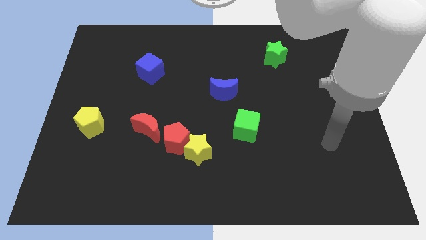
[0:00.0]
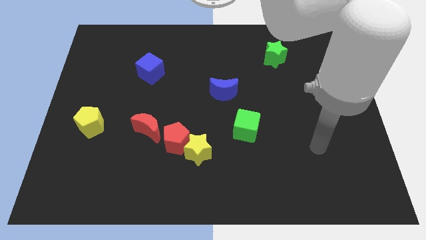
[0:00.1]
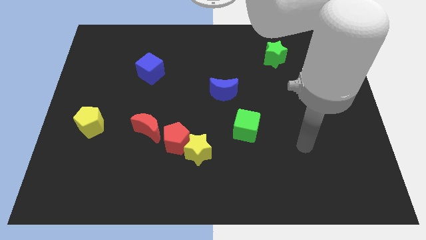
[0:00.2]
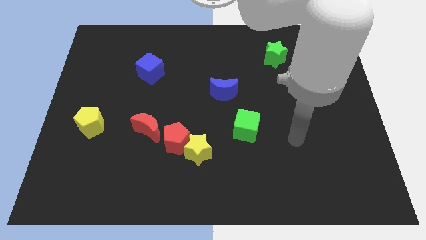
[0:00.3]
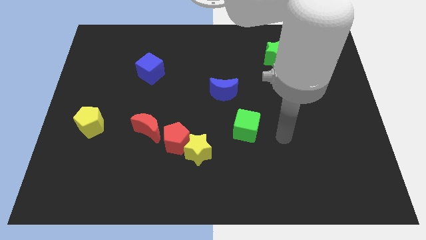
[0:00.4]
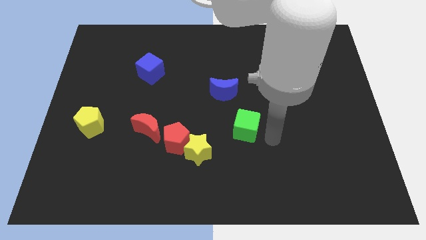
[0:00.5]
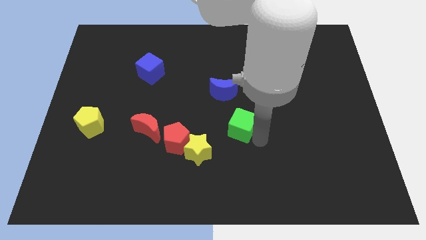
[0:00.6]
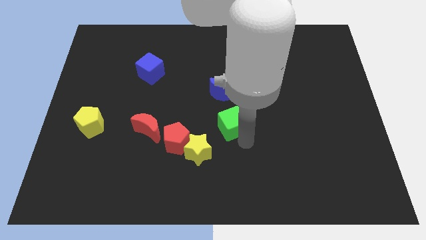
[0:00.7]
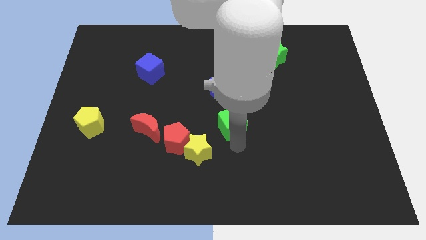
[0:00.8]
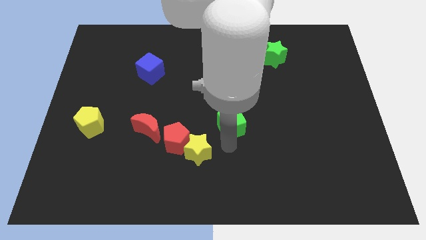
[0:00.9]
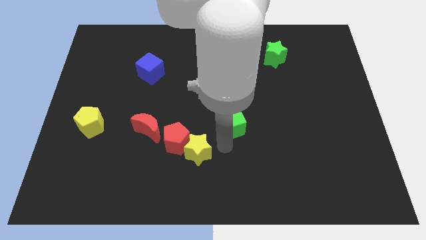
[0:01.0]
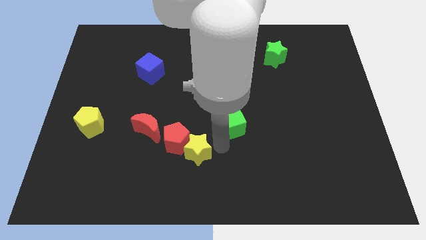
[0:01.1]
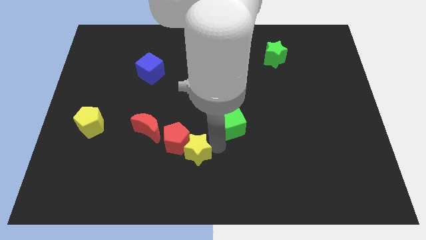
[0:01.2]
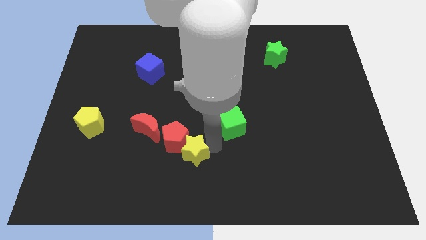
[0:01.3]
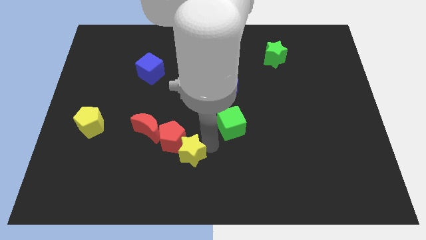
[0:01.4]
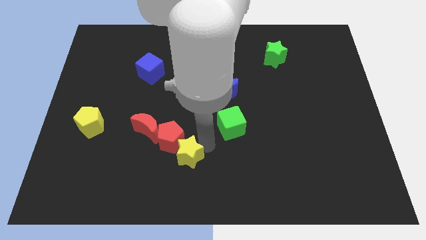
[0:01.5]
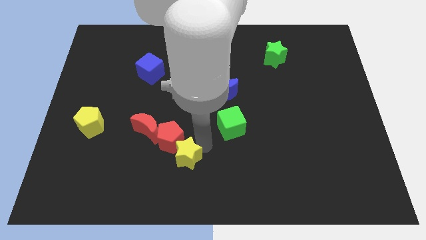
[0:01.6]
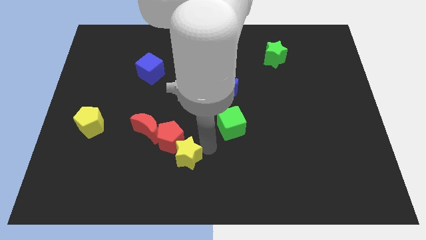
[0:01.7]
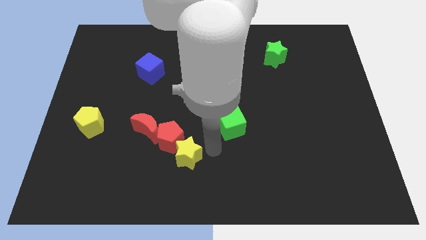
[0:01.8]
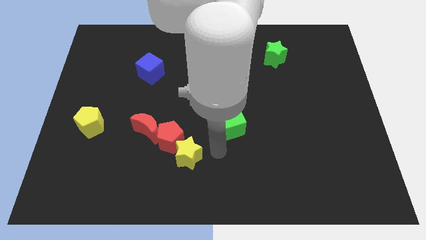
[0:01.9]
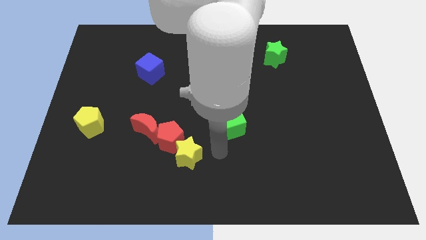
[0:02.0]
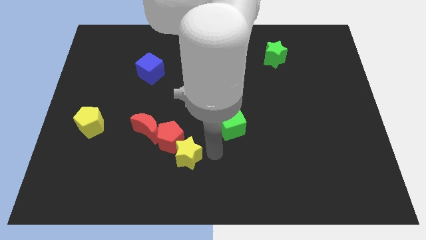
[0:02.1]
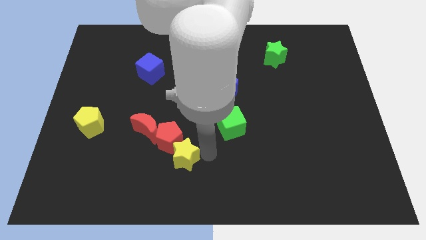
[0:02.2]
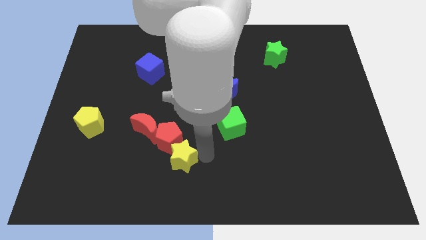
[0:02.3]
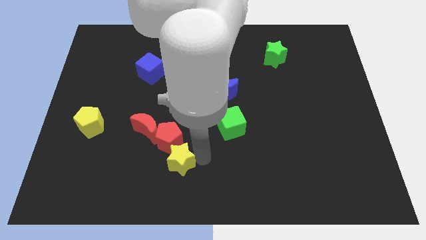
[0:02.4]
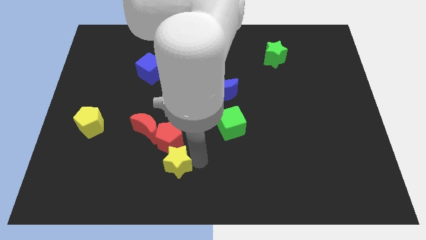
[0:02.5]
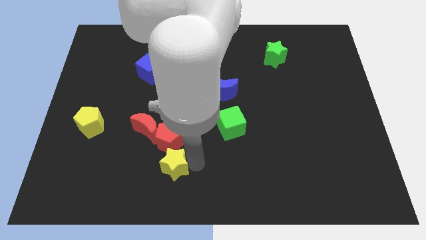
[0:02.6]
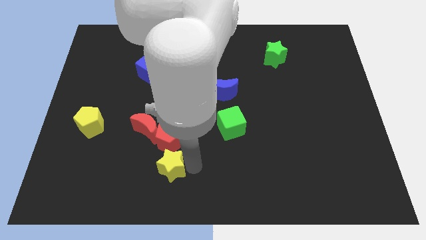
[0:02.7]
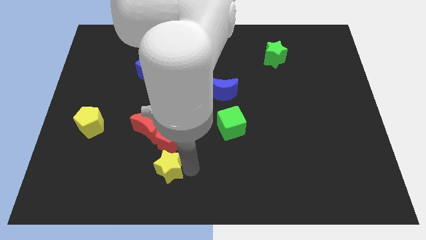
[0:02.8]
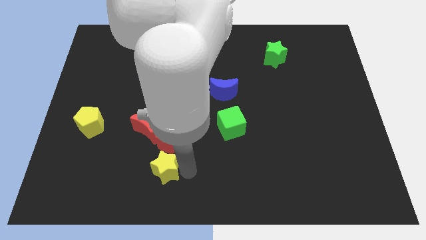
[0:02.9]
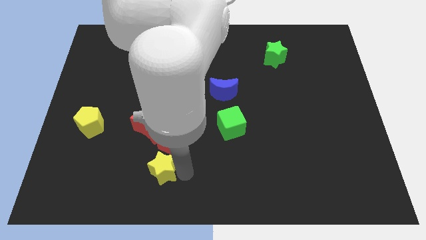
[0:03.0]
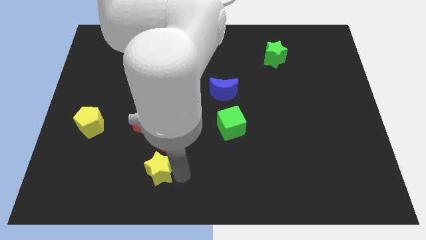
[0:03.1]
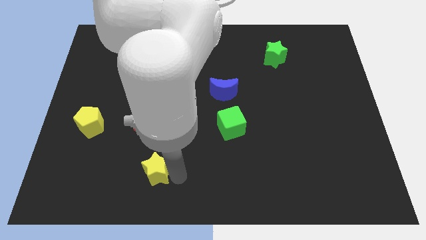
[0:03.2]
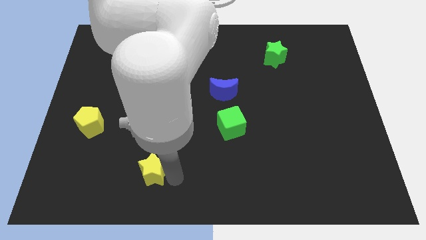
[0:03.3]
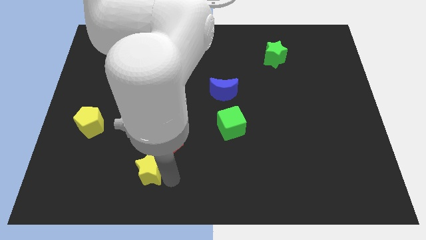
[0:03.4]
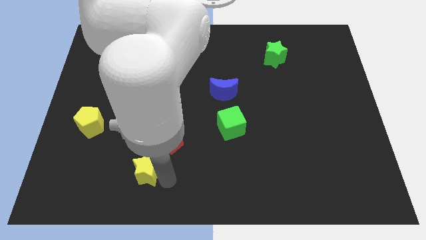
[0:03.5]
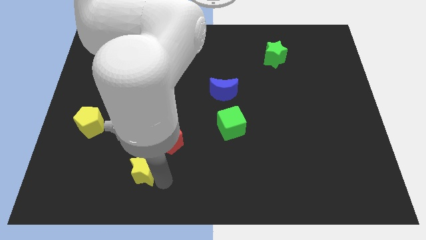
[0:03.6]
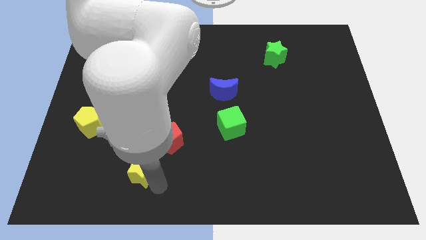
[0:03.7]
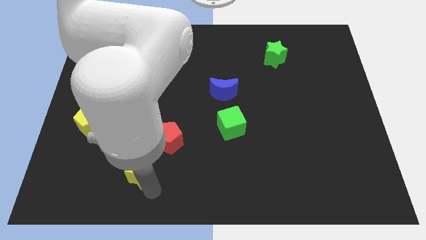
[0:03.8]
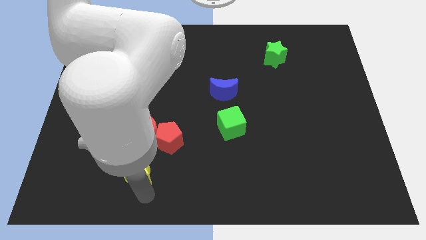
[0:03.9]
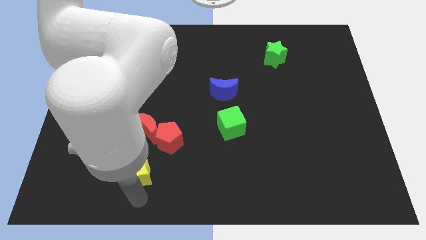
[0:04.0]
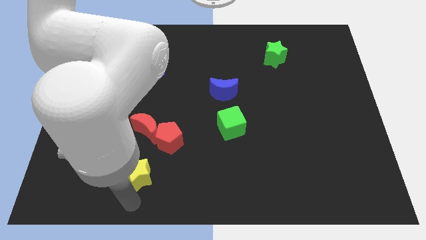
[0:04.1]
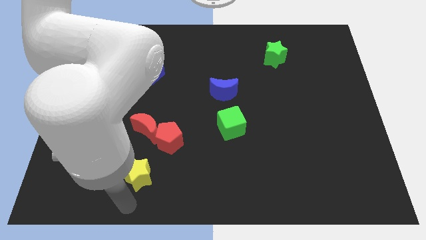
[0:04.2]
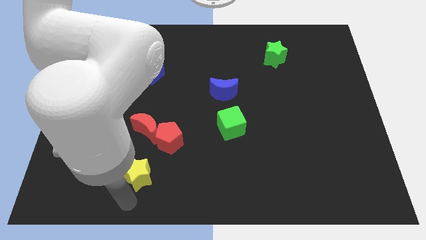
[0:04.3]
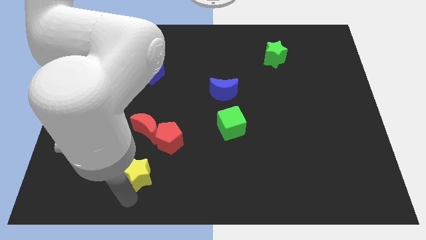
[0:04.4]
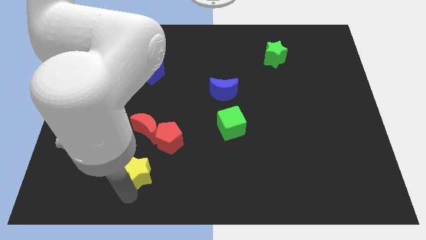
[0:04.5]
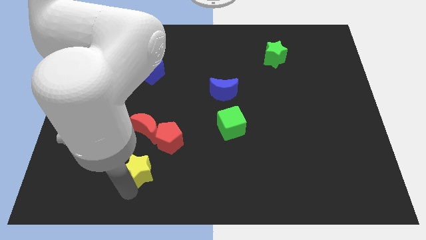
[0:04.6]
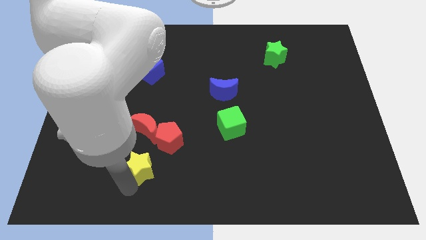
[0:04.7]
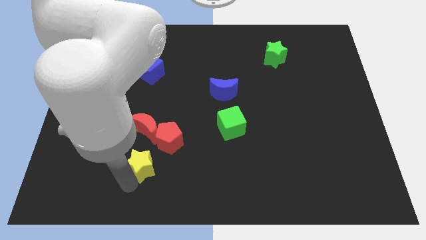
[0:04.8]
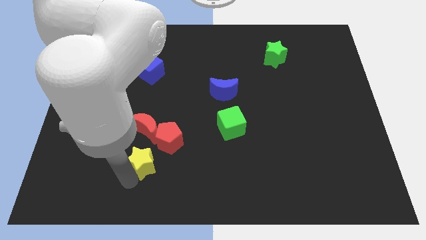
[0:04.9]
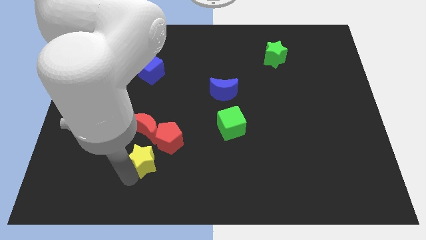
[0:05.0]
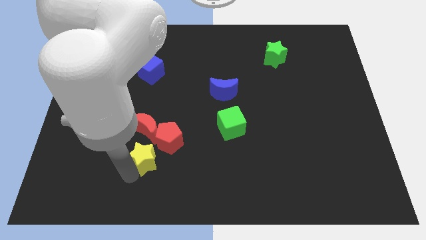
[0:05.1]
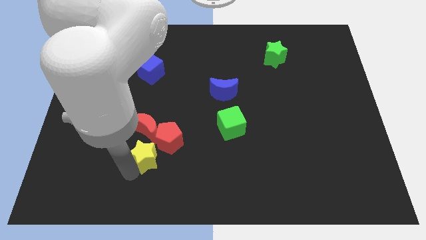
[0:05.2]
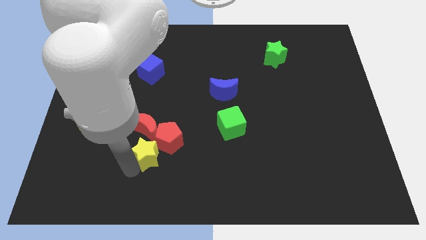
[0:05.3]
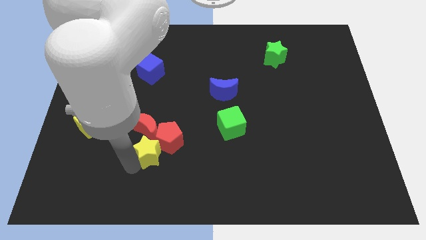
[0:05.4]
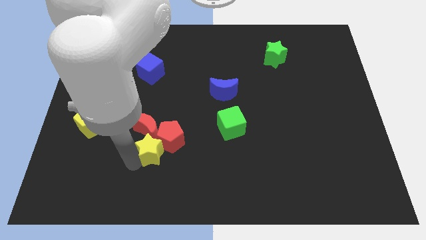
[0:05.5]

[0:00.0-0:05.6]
push the yellow star towards the red moon

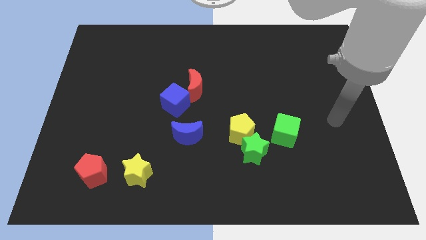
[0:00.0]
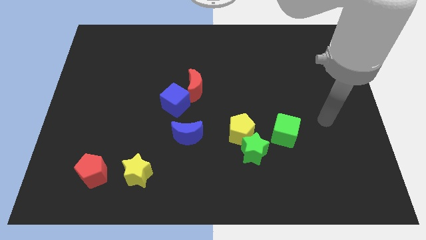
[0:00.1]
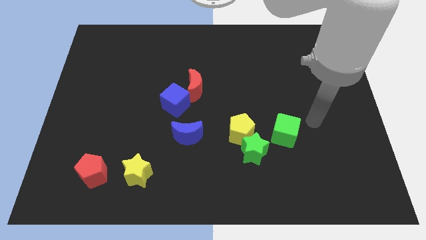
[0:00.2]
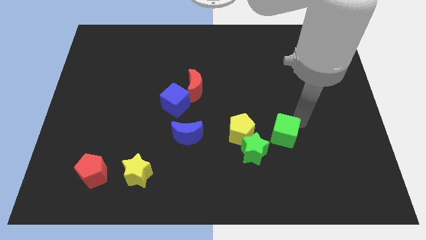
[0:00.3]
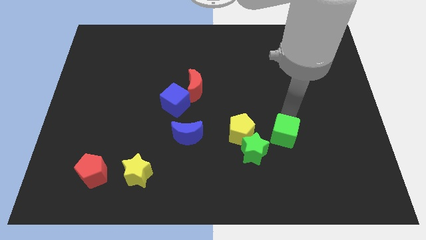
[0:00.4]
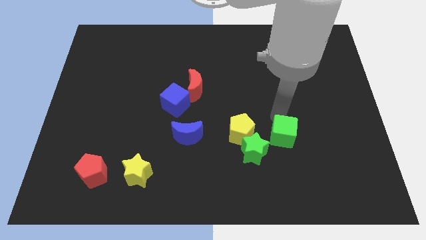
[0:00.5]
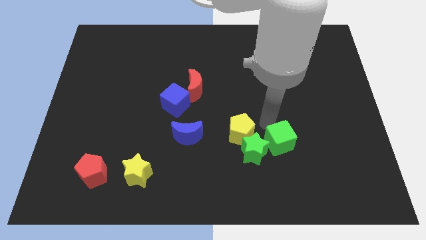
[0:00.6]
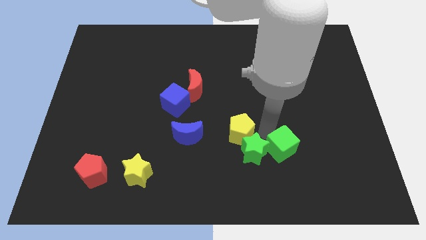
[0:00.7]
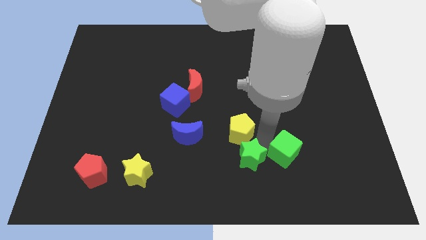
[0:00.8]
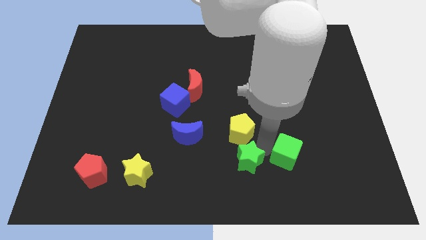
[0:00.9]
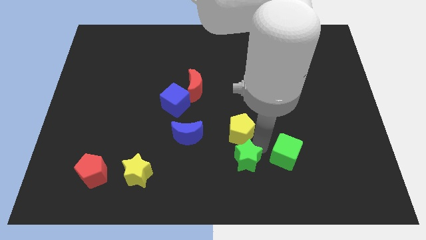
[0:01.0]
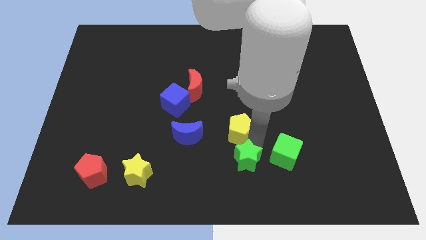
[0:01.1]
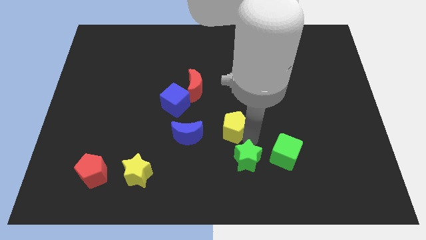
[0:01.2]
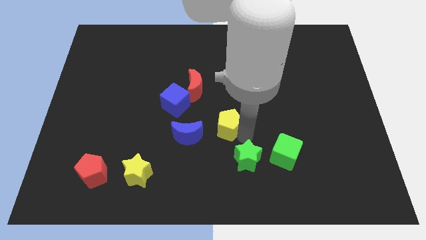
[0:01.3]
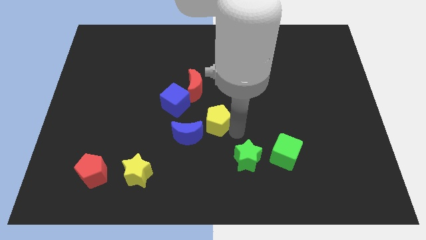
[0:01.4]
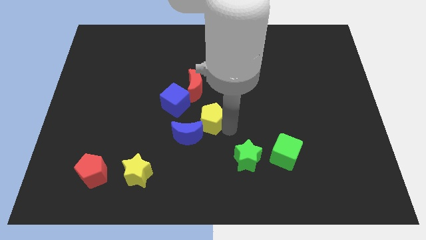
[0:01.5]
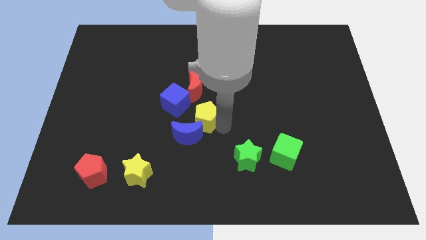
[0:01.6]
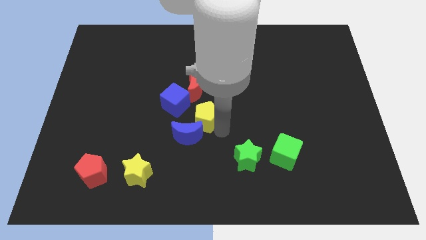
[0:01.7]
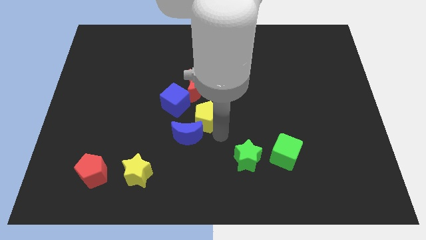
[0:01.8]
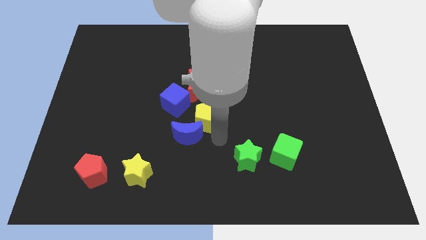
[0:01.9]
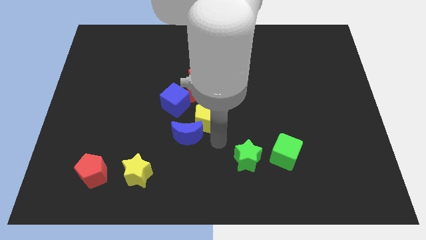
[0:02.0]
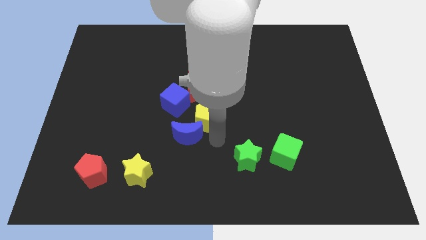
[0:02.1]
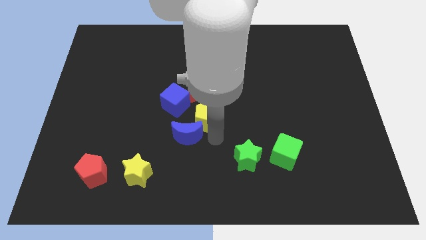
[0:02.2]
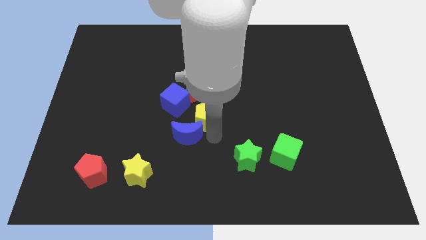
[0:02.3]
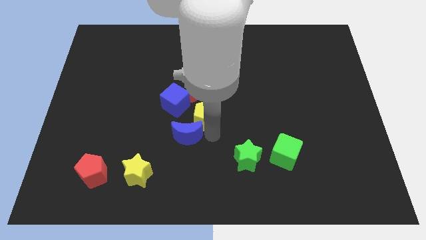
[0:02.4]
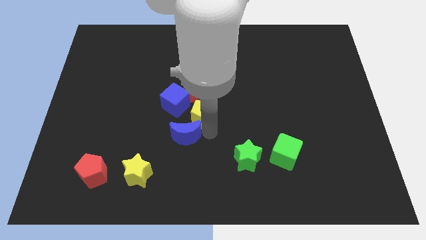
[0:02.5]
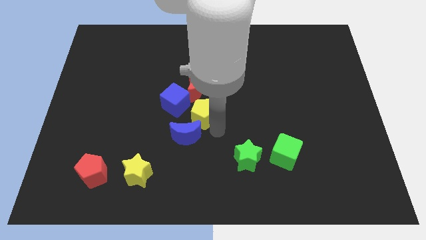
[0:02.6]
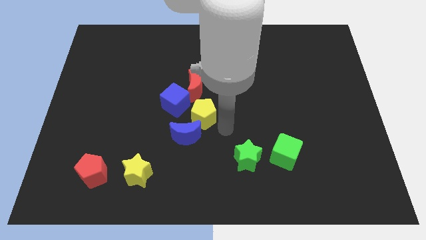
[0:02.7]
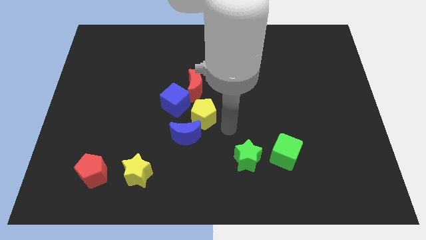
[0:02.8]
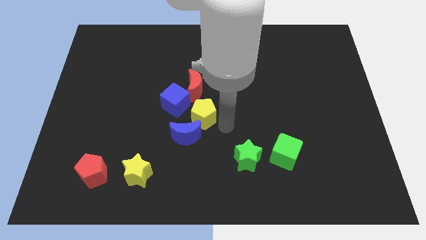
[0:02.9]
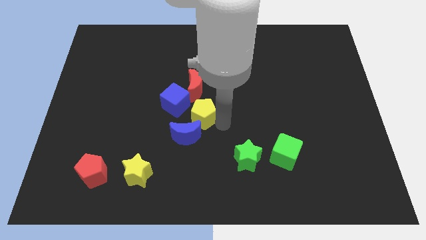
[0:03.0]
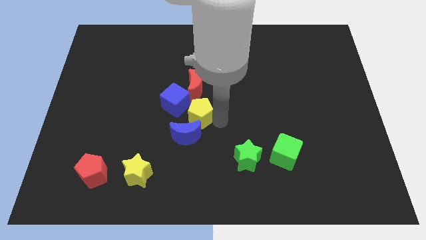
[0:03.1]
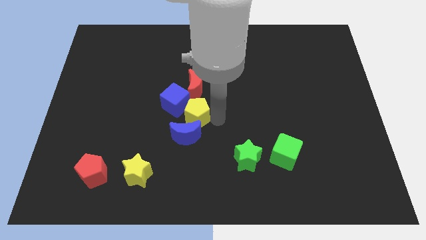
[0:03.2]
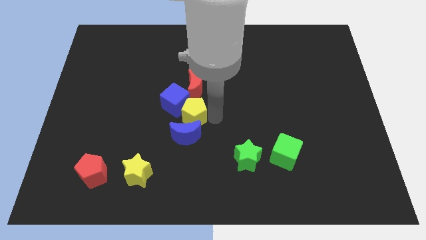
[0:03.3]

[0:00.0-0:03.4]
slide the yellow pentagon next to the blue cube
